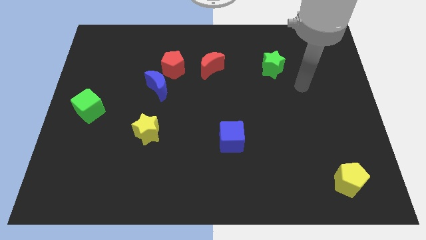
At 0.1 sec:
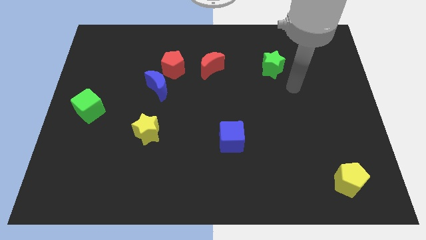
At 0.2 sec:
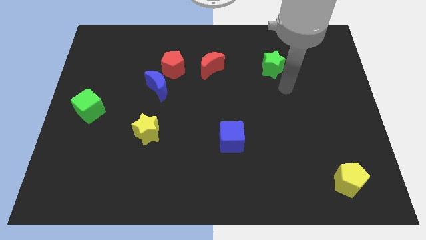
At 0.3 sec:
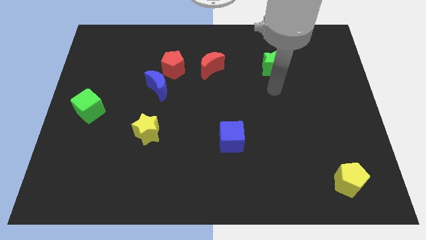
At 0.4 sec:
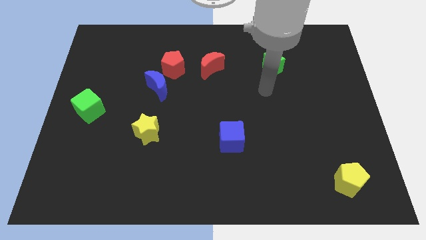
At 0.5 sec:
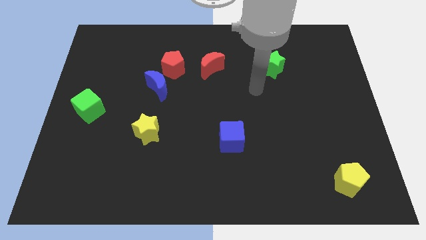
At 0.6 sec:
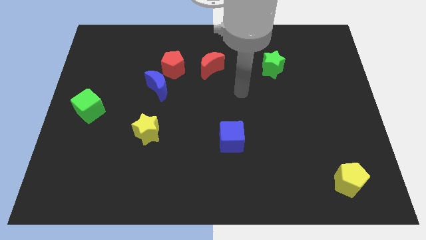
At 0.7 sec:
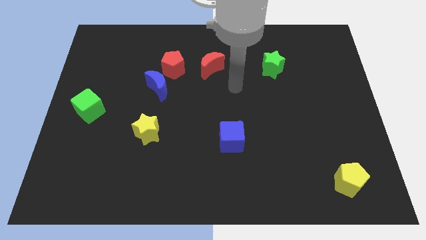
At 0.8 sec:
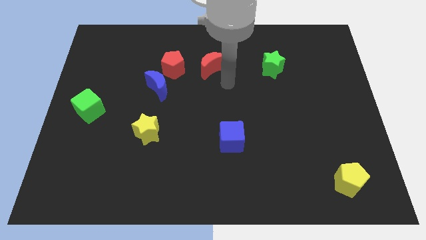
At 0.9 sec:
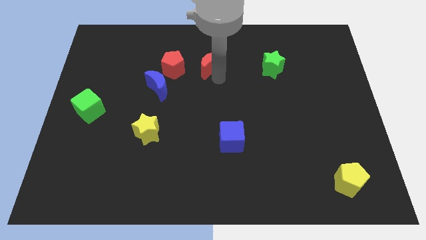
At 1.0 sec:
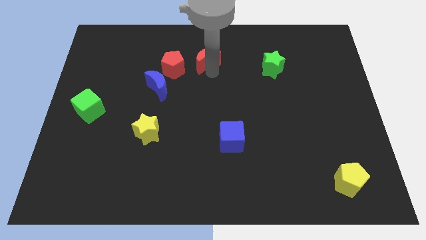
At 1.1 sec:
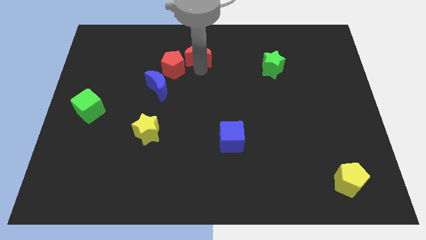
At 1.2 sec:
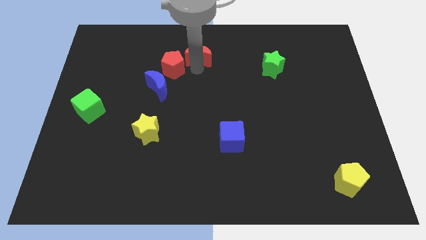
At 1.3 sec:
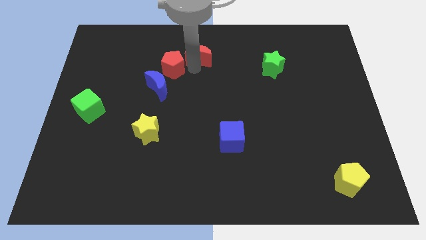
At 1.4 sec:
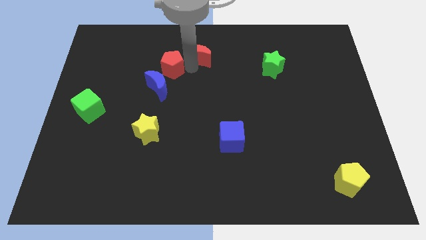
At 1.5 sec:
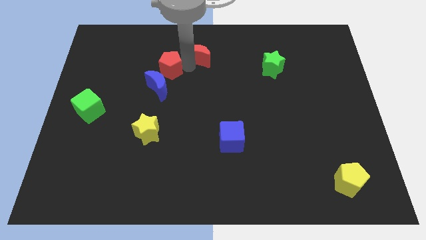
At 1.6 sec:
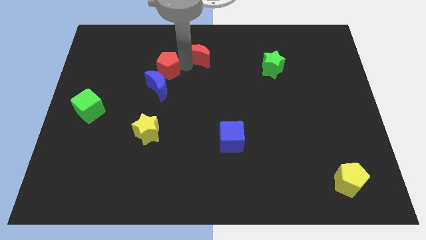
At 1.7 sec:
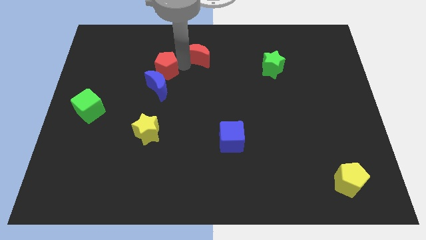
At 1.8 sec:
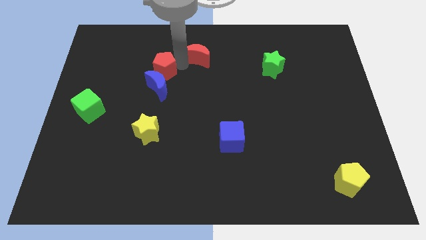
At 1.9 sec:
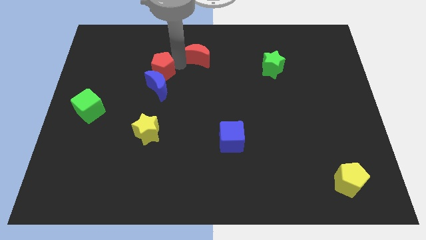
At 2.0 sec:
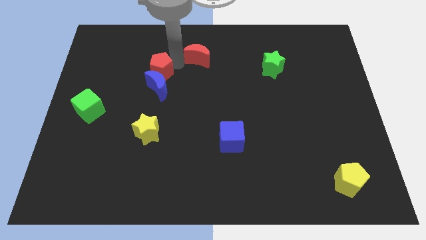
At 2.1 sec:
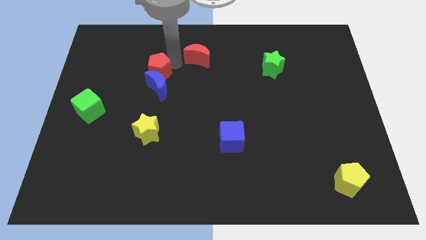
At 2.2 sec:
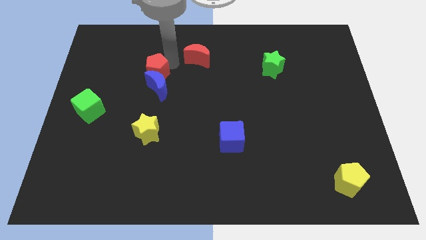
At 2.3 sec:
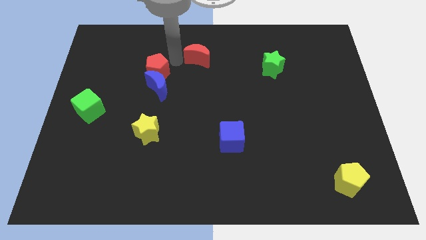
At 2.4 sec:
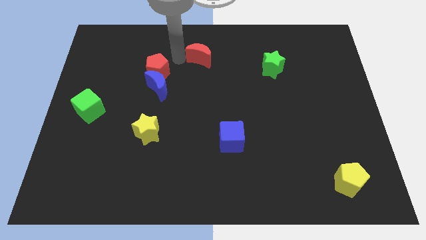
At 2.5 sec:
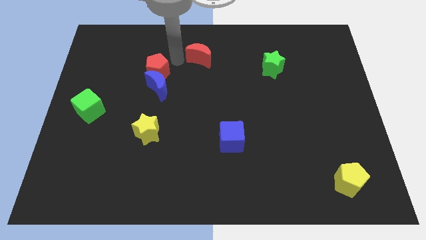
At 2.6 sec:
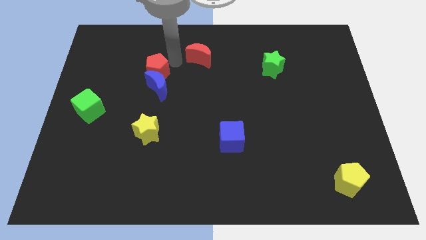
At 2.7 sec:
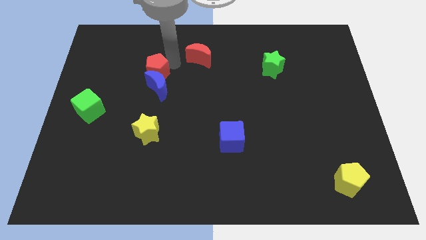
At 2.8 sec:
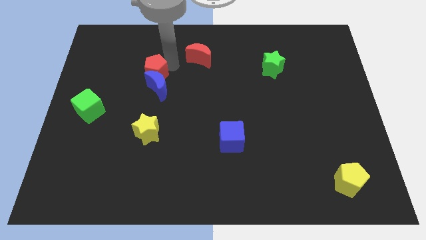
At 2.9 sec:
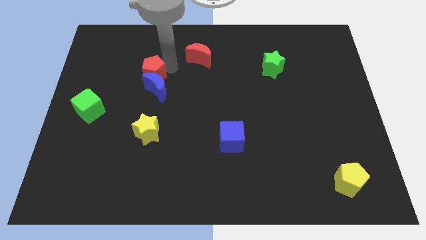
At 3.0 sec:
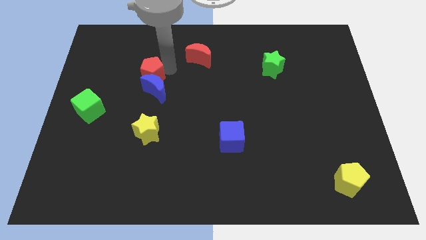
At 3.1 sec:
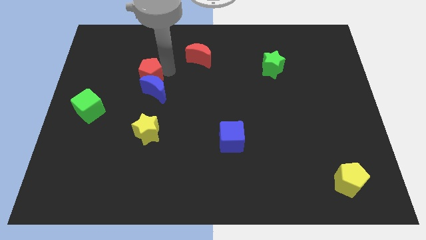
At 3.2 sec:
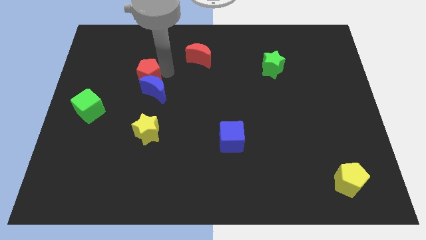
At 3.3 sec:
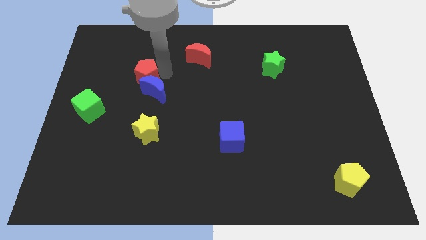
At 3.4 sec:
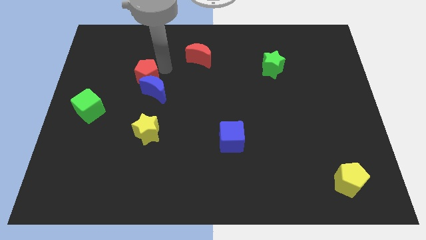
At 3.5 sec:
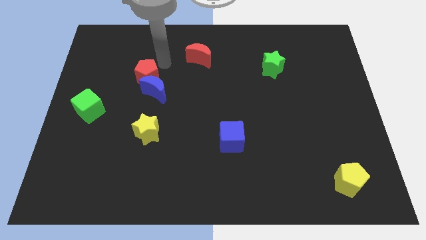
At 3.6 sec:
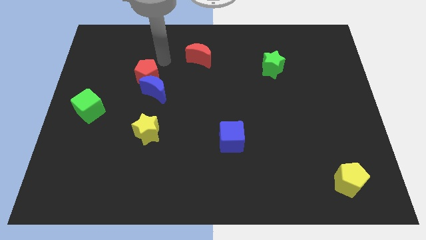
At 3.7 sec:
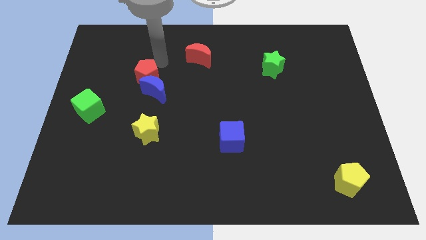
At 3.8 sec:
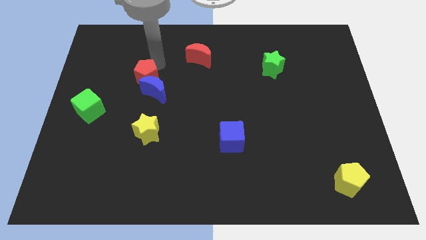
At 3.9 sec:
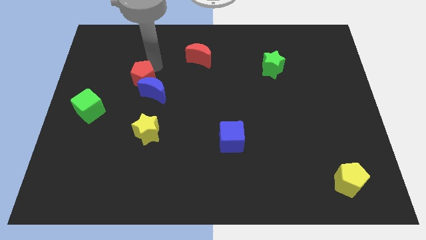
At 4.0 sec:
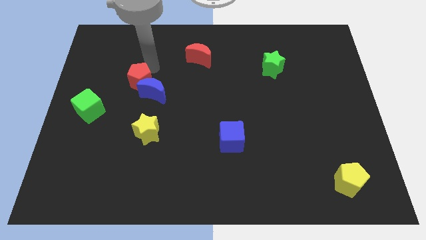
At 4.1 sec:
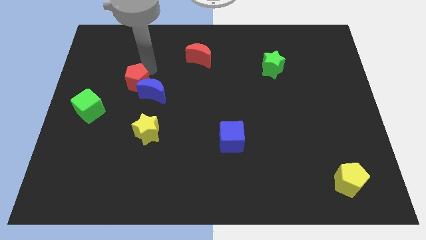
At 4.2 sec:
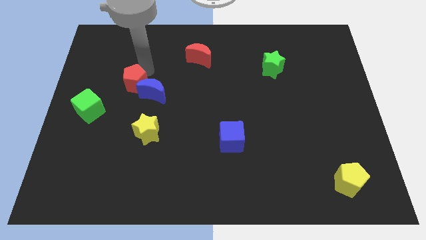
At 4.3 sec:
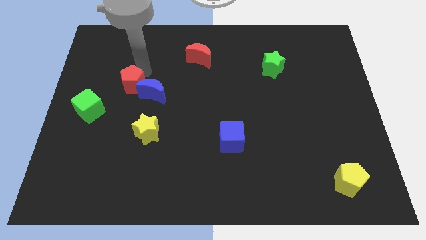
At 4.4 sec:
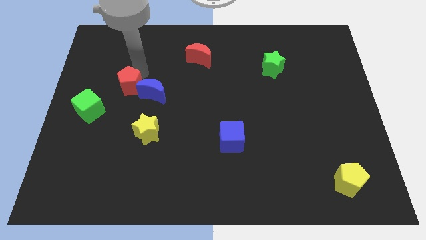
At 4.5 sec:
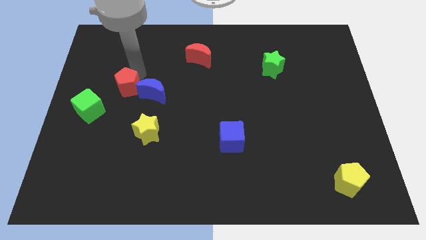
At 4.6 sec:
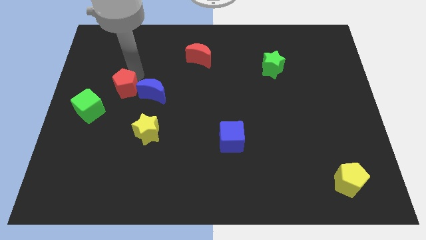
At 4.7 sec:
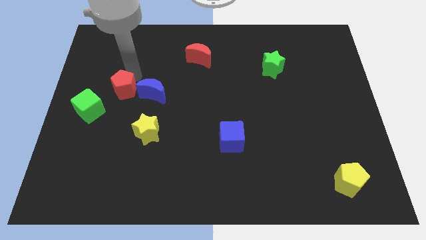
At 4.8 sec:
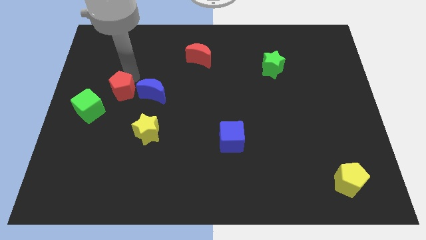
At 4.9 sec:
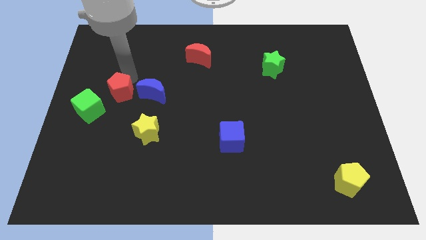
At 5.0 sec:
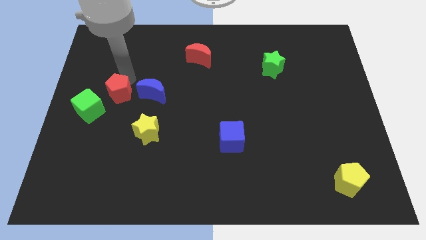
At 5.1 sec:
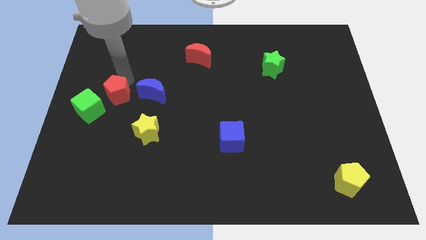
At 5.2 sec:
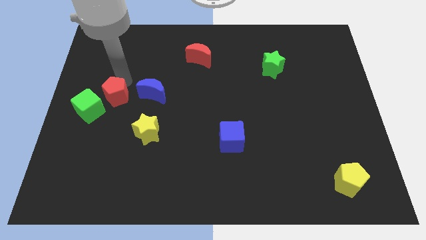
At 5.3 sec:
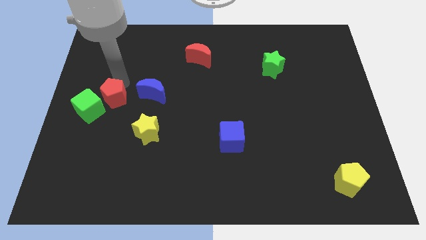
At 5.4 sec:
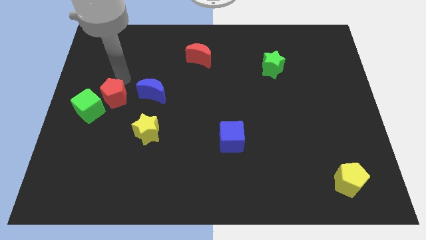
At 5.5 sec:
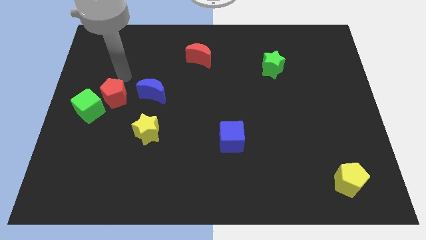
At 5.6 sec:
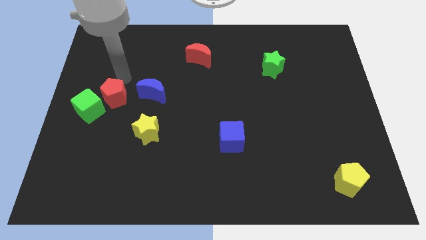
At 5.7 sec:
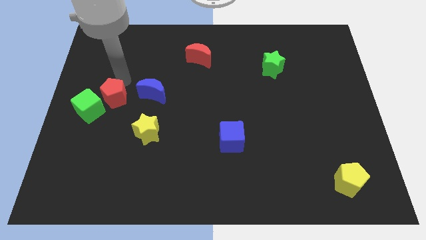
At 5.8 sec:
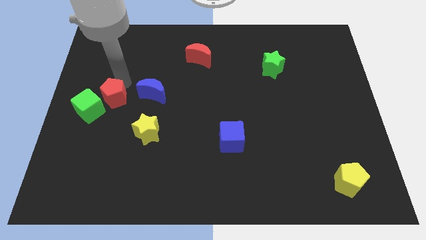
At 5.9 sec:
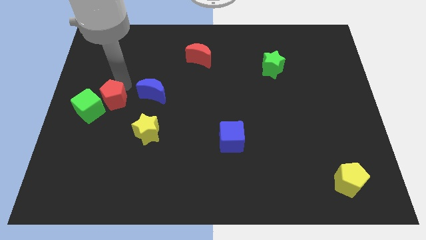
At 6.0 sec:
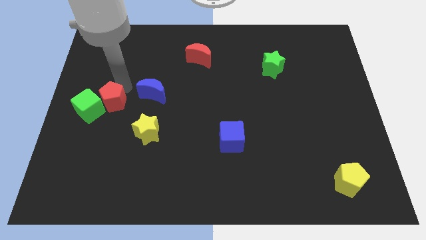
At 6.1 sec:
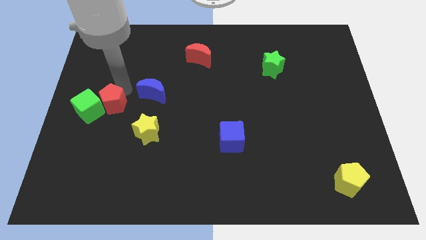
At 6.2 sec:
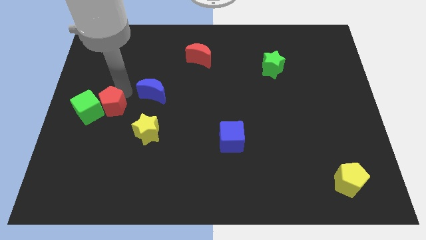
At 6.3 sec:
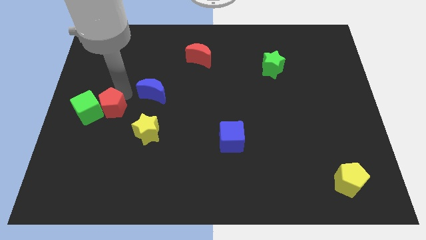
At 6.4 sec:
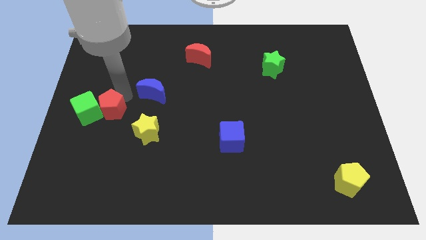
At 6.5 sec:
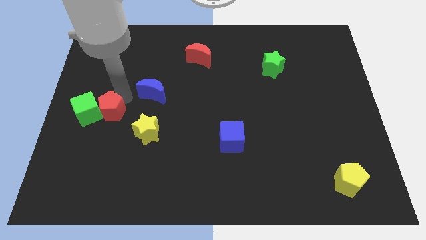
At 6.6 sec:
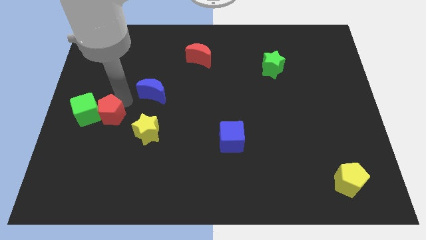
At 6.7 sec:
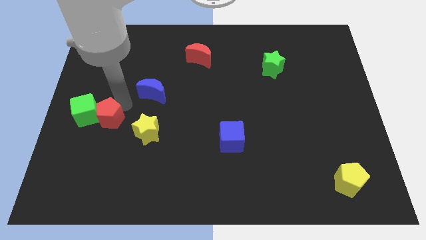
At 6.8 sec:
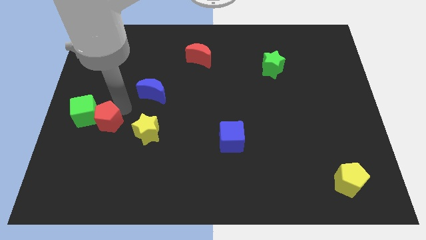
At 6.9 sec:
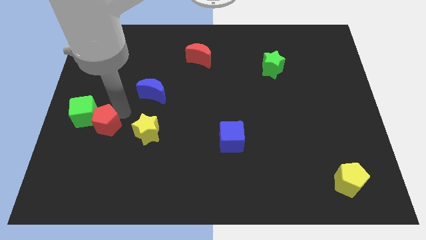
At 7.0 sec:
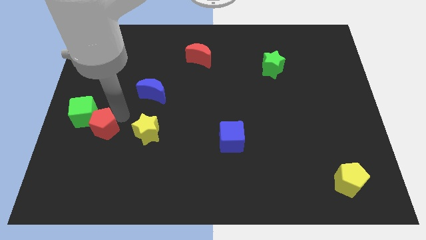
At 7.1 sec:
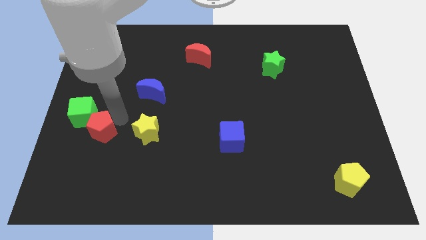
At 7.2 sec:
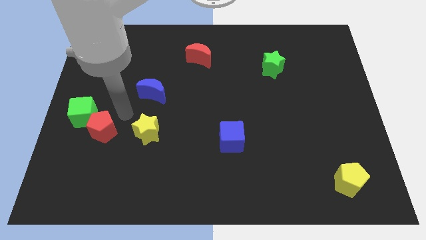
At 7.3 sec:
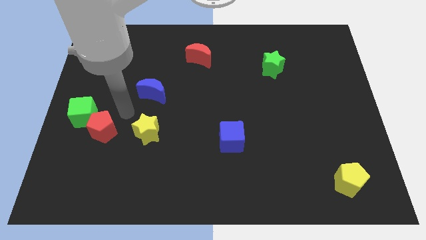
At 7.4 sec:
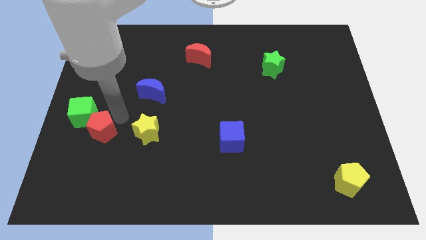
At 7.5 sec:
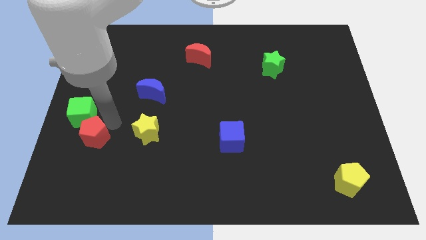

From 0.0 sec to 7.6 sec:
push the red pentagon to the bottom side of the green cube
